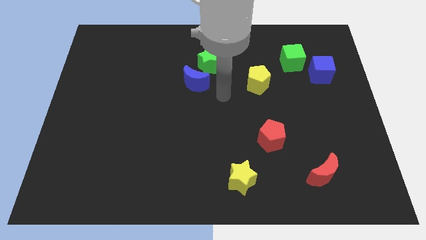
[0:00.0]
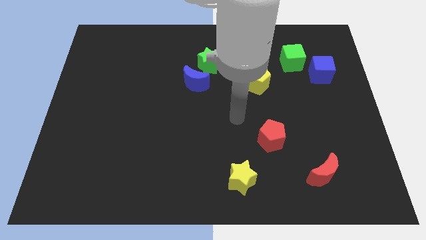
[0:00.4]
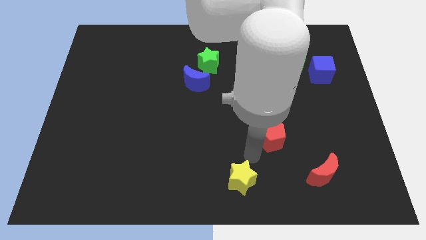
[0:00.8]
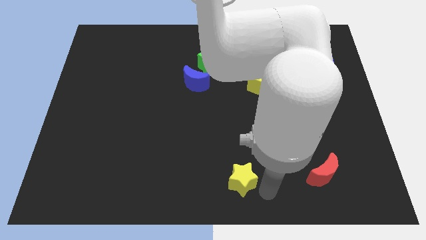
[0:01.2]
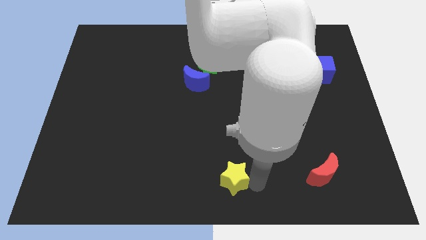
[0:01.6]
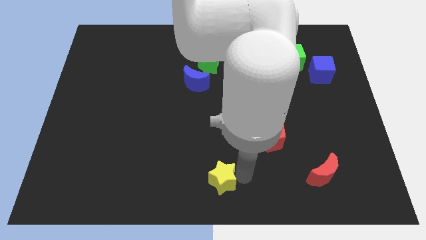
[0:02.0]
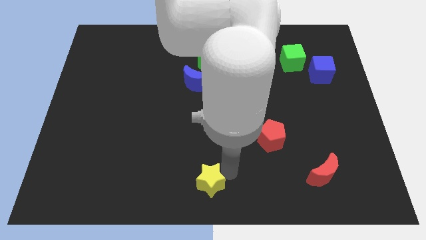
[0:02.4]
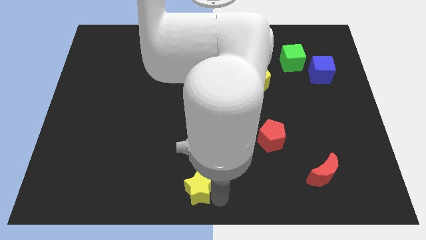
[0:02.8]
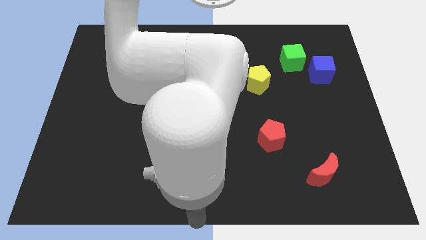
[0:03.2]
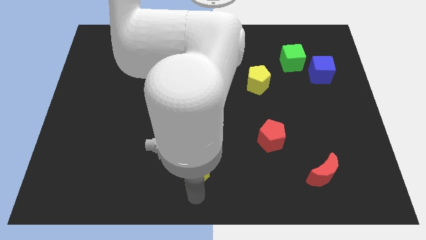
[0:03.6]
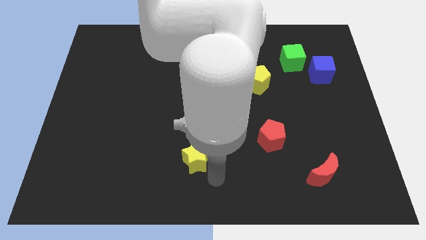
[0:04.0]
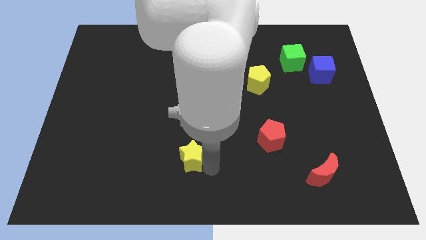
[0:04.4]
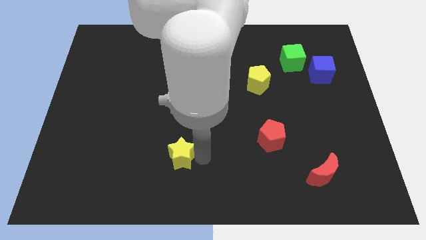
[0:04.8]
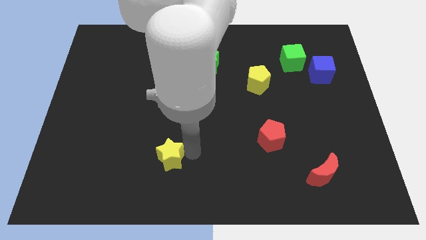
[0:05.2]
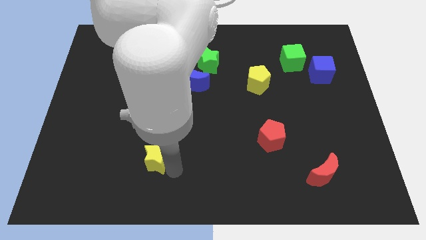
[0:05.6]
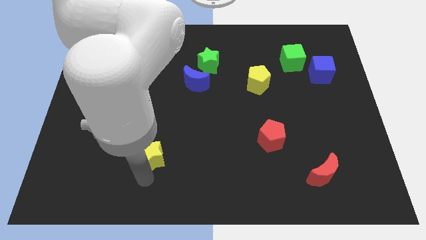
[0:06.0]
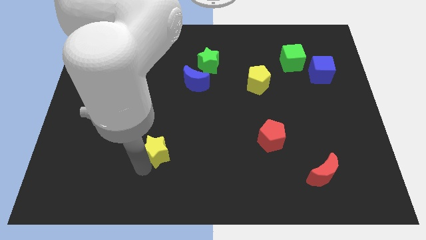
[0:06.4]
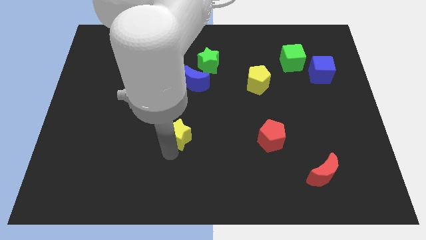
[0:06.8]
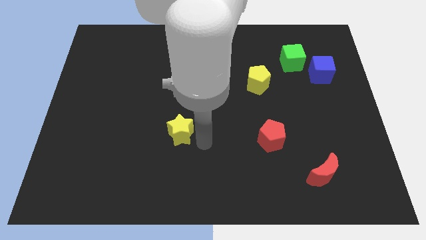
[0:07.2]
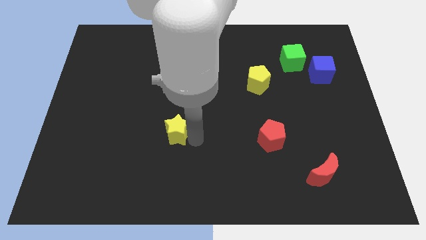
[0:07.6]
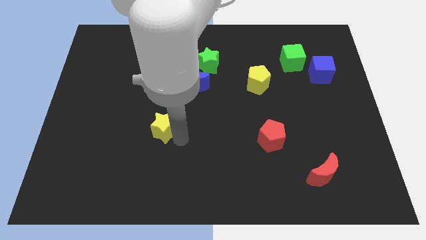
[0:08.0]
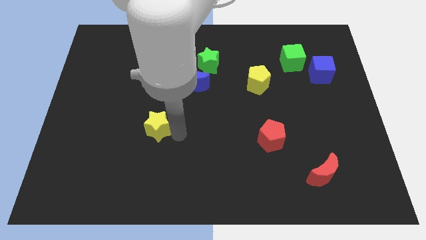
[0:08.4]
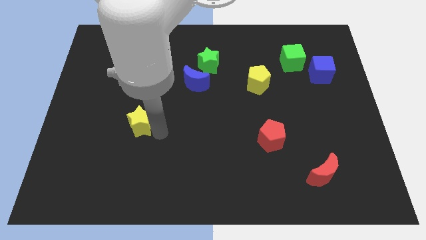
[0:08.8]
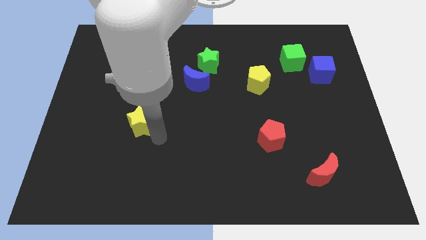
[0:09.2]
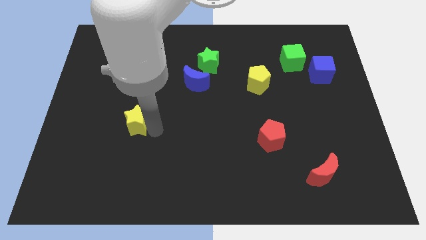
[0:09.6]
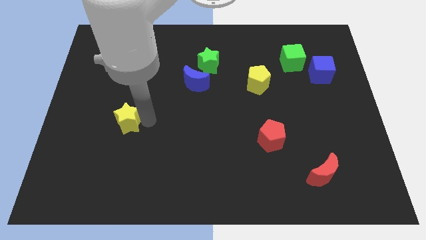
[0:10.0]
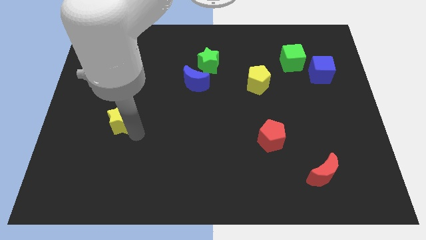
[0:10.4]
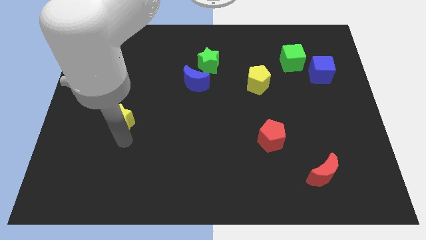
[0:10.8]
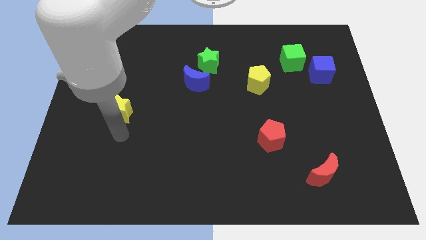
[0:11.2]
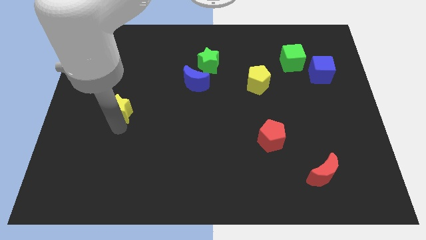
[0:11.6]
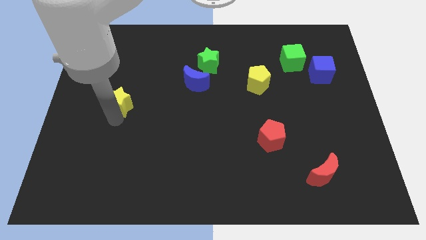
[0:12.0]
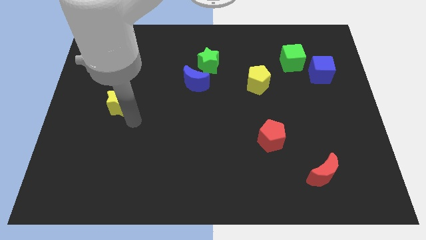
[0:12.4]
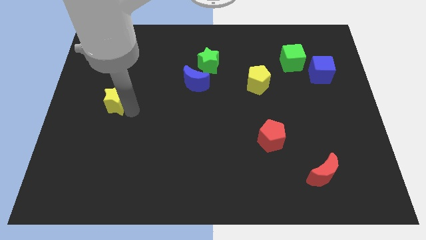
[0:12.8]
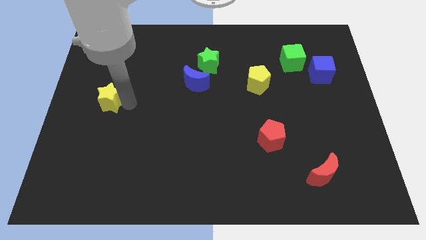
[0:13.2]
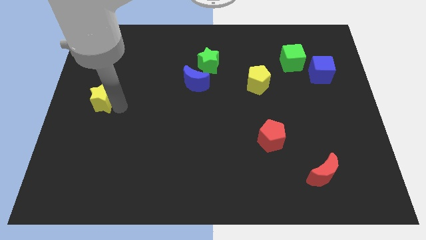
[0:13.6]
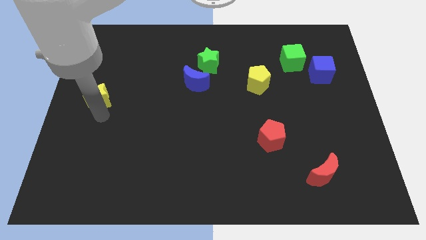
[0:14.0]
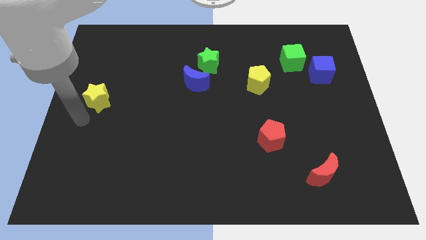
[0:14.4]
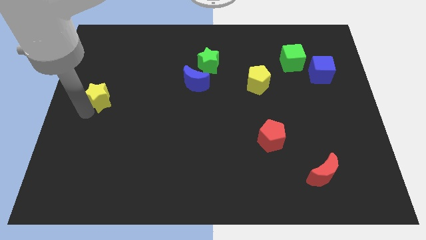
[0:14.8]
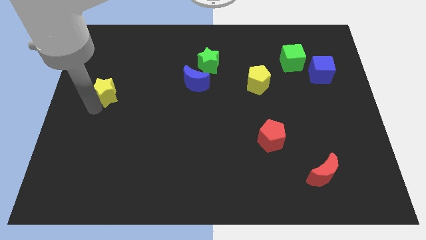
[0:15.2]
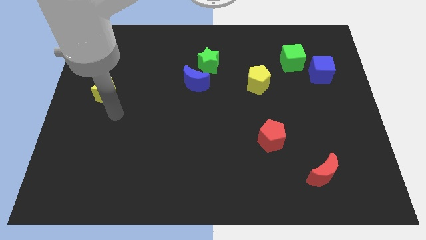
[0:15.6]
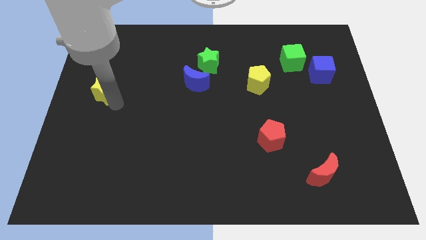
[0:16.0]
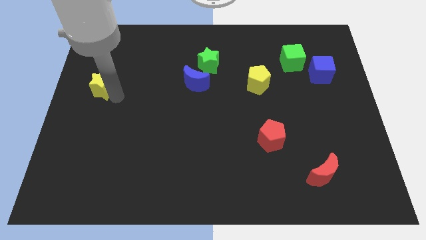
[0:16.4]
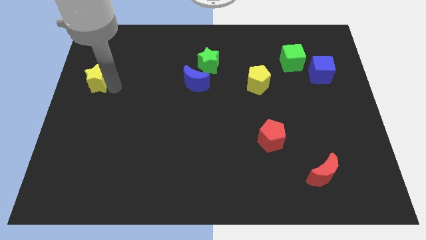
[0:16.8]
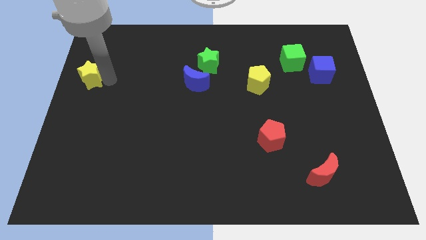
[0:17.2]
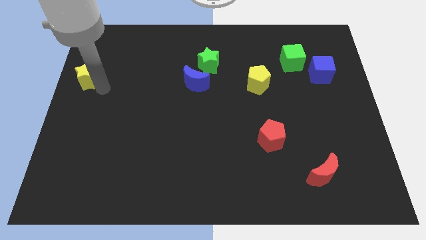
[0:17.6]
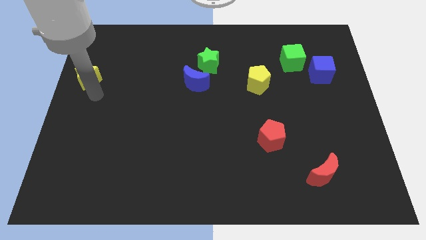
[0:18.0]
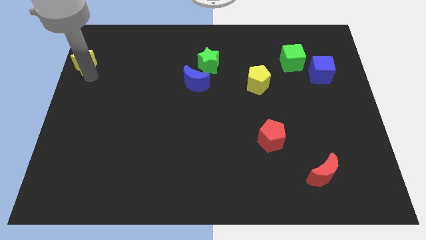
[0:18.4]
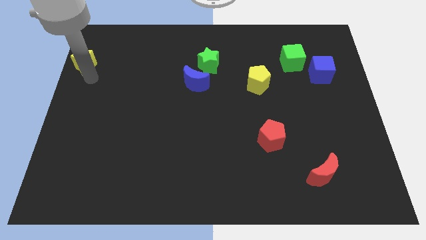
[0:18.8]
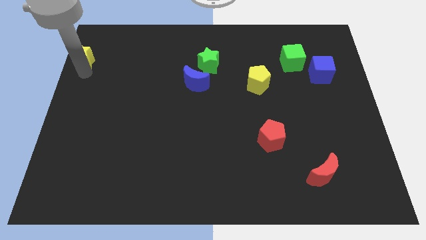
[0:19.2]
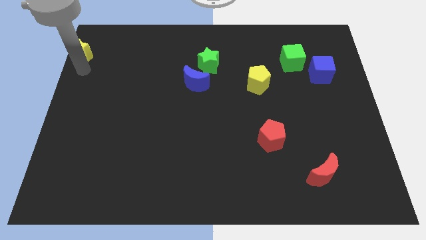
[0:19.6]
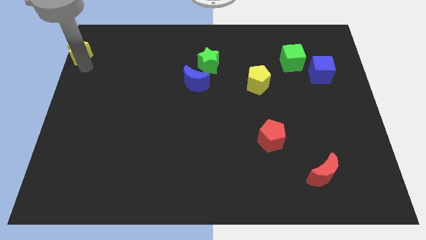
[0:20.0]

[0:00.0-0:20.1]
push the yellow star to the top left

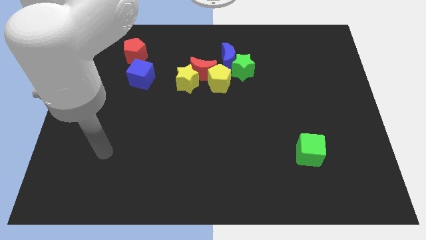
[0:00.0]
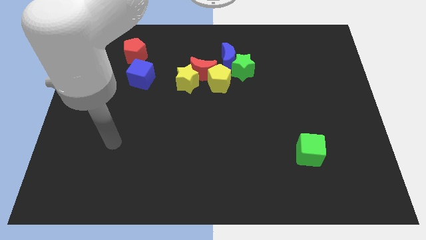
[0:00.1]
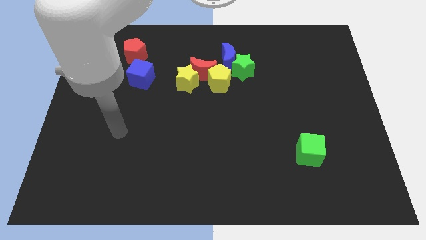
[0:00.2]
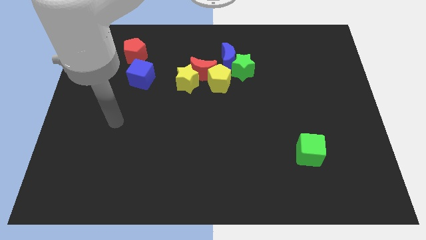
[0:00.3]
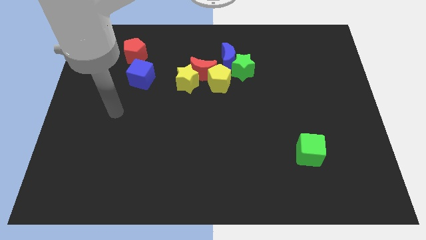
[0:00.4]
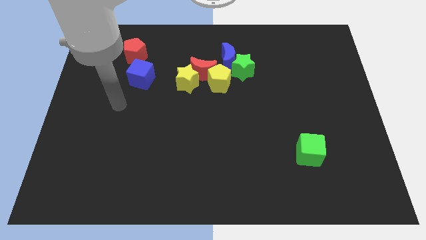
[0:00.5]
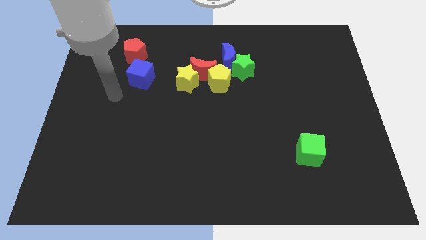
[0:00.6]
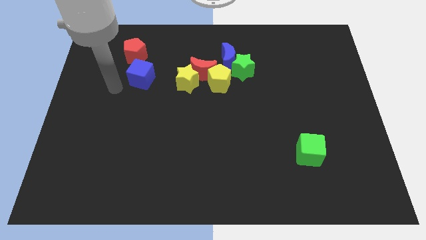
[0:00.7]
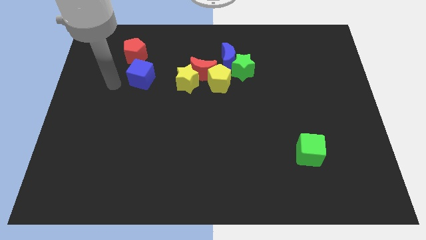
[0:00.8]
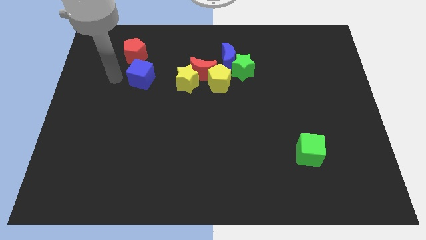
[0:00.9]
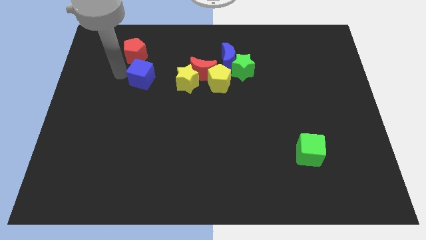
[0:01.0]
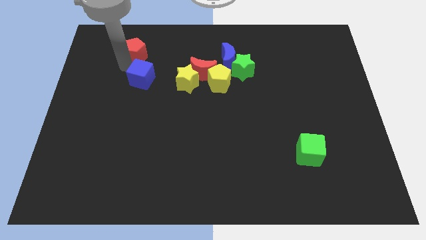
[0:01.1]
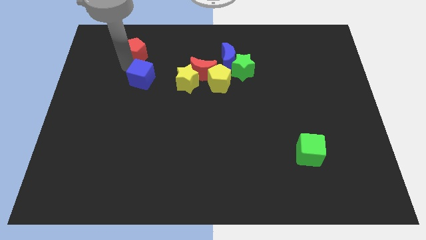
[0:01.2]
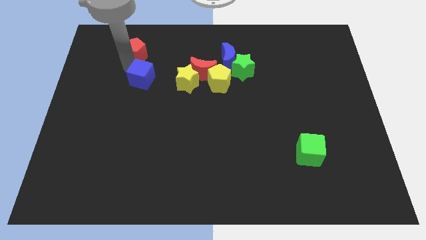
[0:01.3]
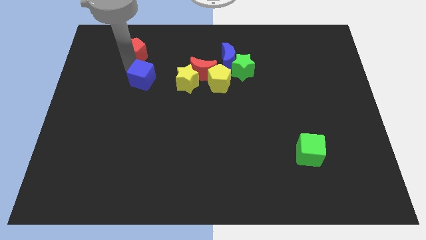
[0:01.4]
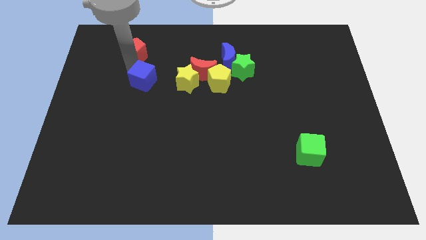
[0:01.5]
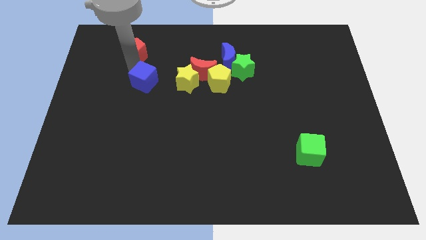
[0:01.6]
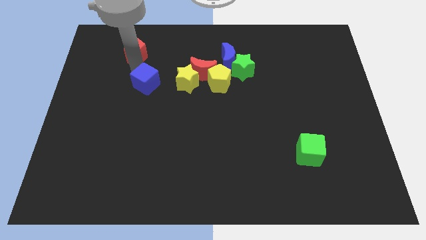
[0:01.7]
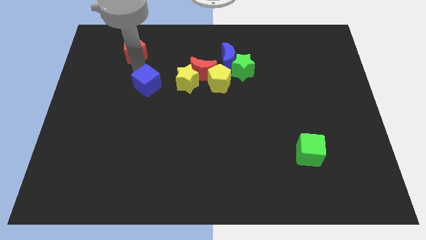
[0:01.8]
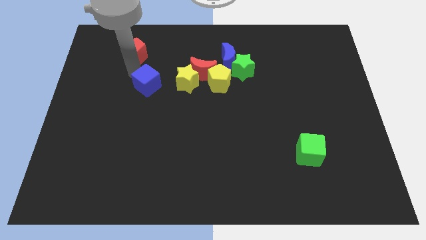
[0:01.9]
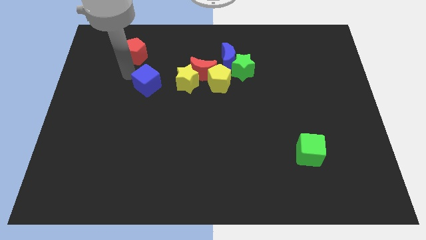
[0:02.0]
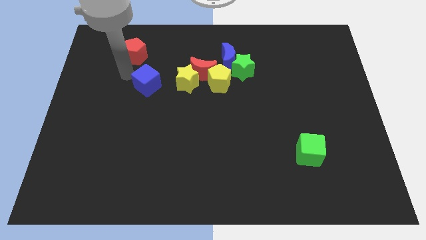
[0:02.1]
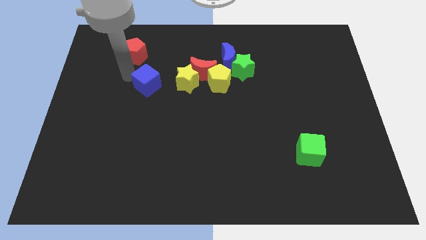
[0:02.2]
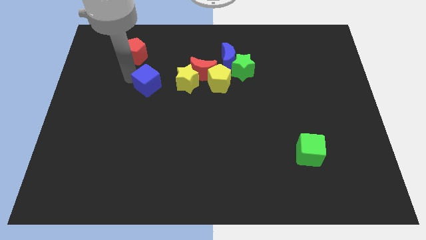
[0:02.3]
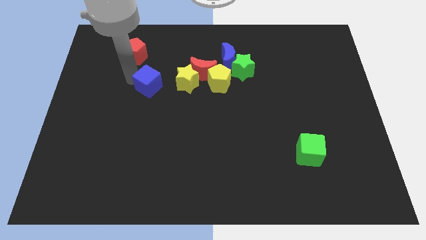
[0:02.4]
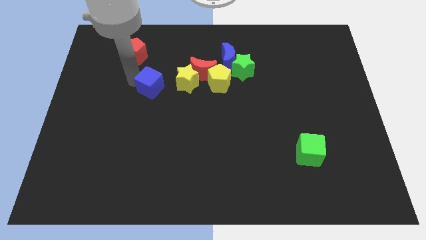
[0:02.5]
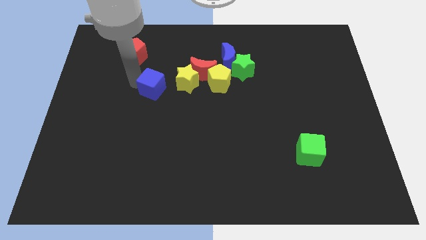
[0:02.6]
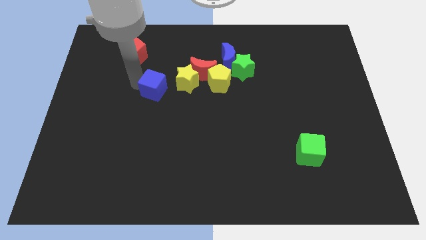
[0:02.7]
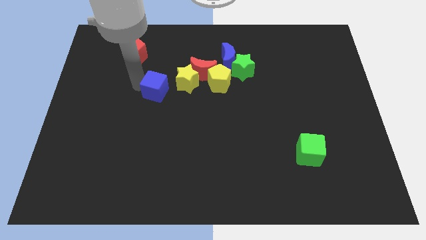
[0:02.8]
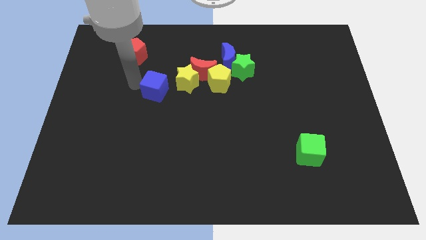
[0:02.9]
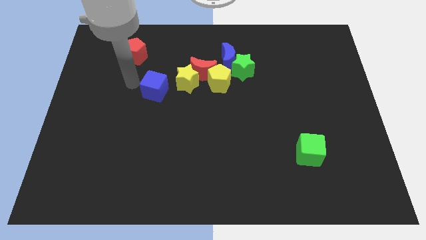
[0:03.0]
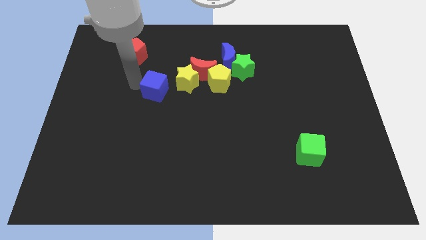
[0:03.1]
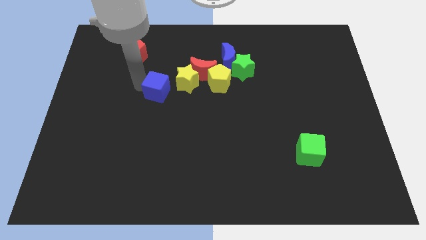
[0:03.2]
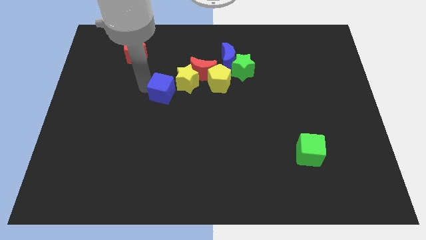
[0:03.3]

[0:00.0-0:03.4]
push the blue cube to the middle
